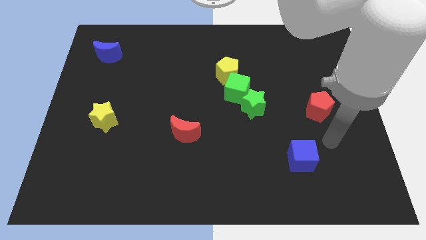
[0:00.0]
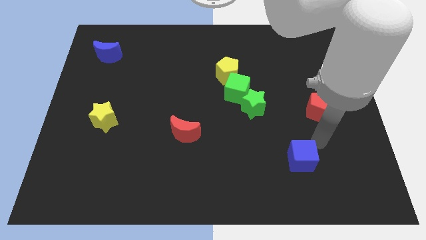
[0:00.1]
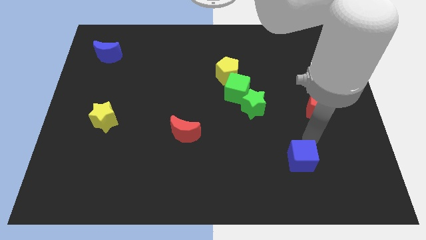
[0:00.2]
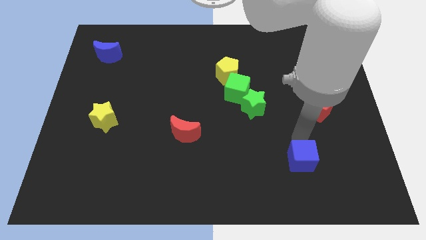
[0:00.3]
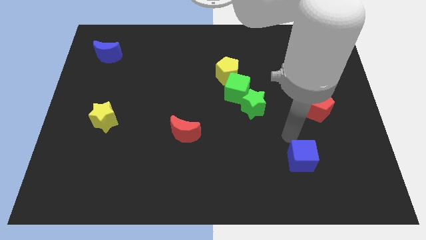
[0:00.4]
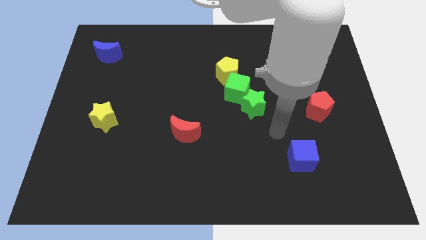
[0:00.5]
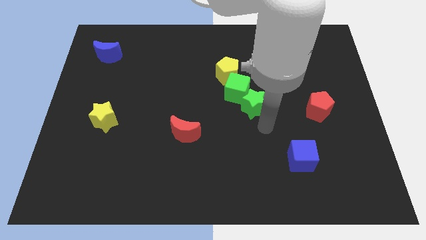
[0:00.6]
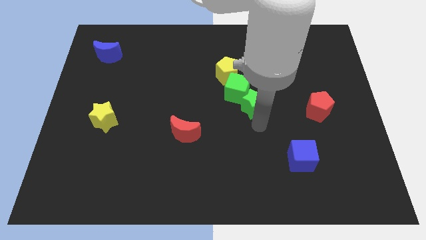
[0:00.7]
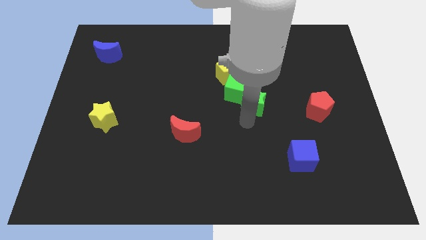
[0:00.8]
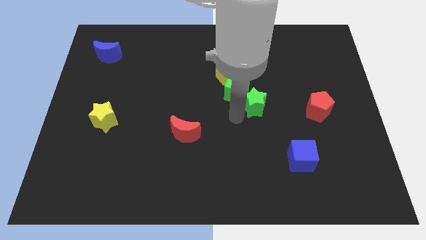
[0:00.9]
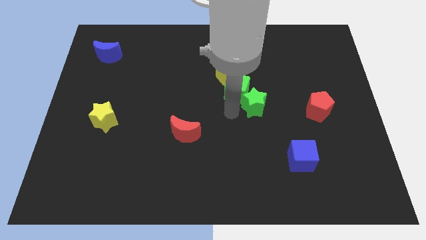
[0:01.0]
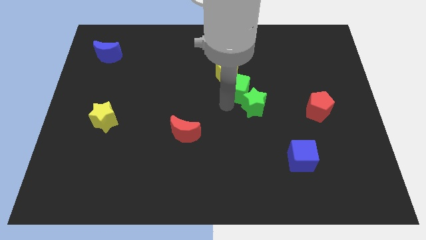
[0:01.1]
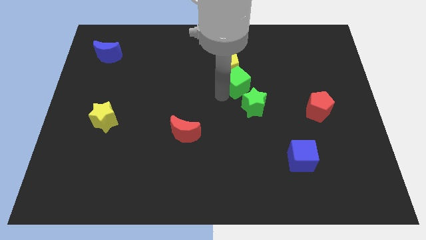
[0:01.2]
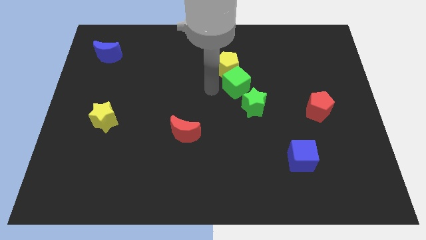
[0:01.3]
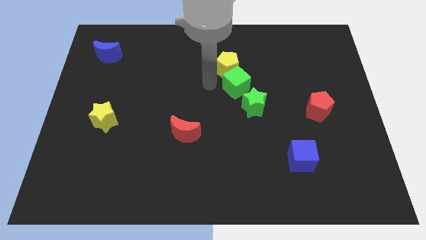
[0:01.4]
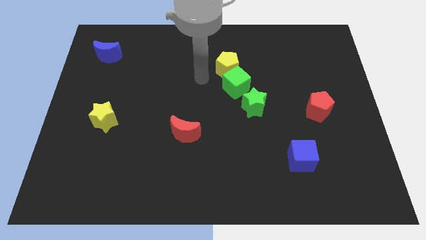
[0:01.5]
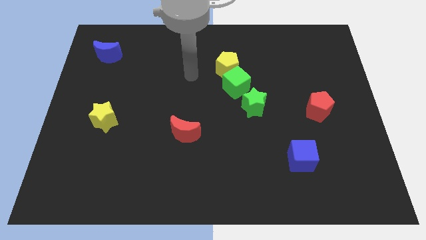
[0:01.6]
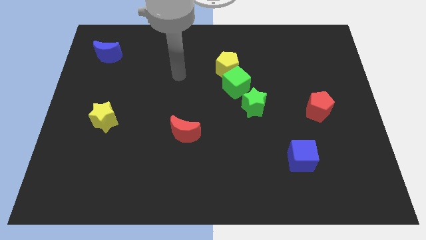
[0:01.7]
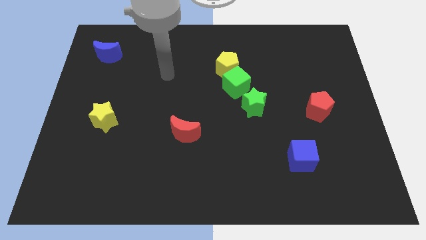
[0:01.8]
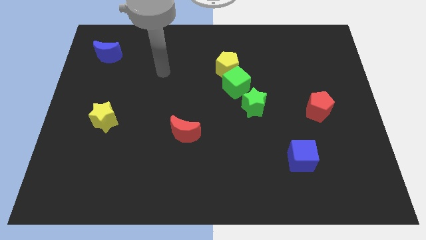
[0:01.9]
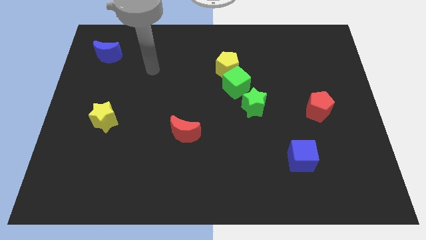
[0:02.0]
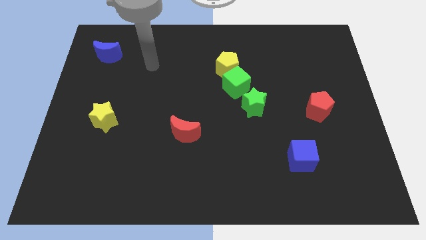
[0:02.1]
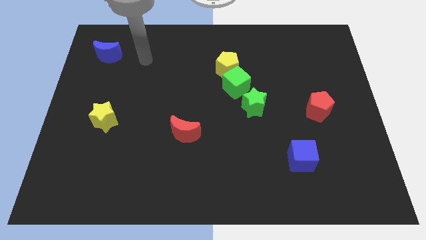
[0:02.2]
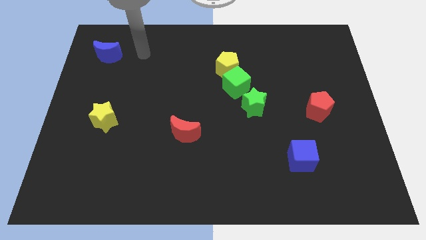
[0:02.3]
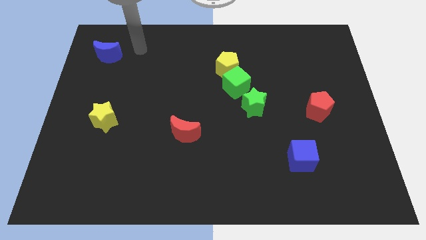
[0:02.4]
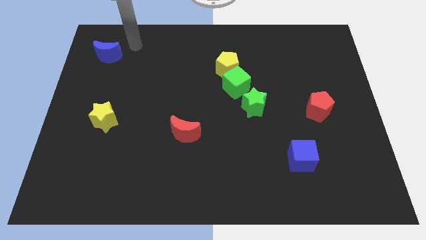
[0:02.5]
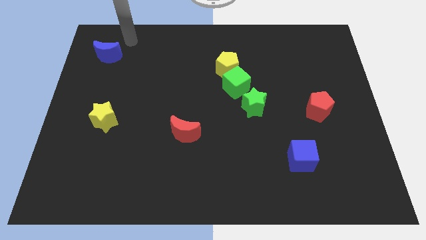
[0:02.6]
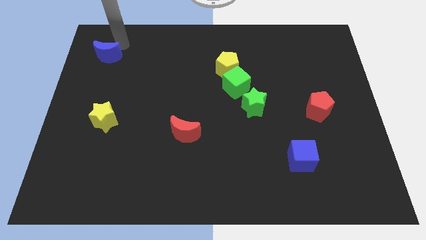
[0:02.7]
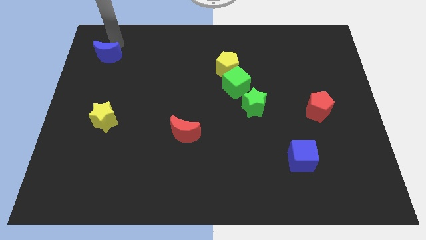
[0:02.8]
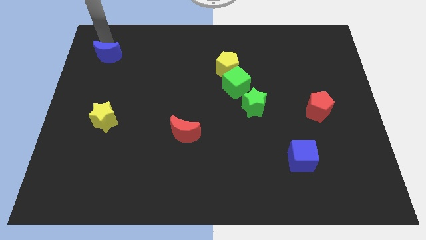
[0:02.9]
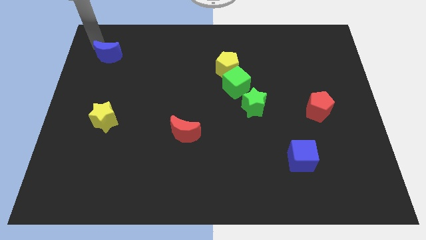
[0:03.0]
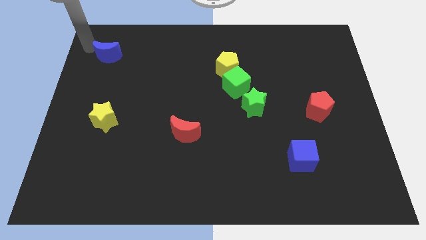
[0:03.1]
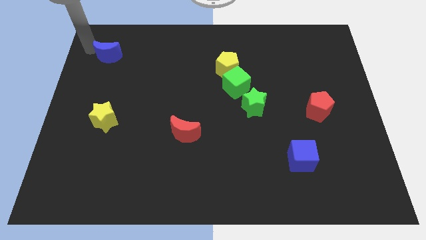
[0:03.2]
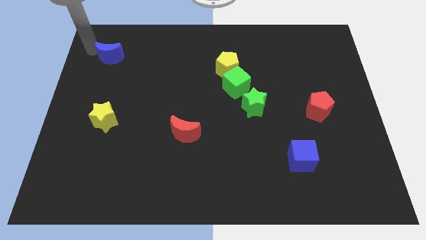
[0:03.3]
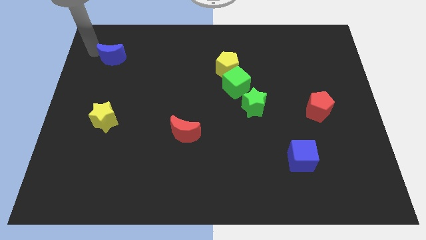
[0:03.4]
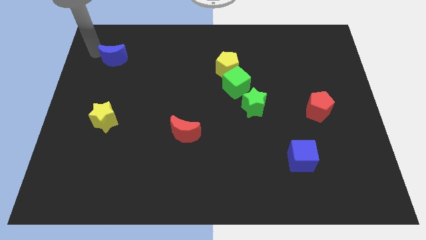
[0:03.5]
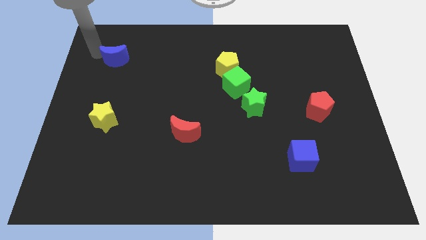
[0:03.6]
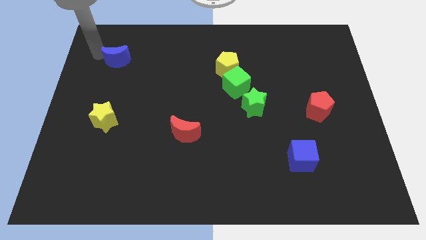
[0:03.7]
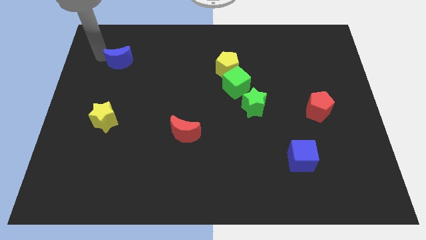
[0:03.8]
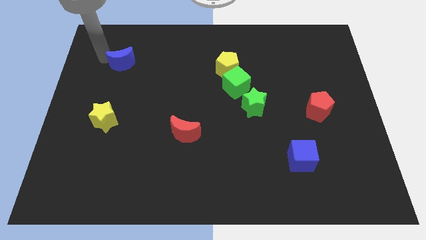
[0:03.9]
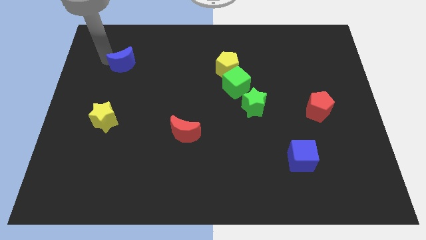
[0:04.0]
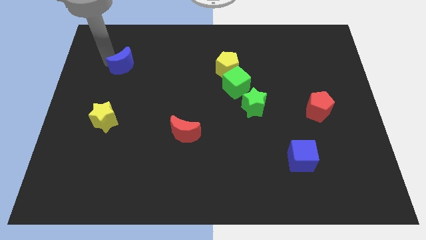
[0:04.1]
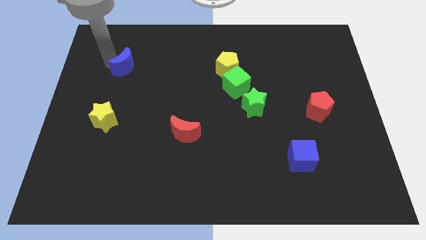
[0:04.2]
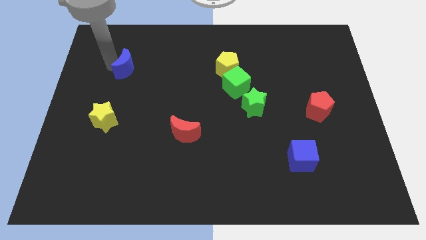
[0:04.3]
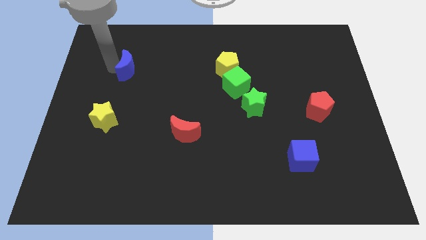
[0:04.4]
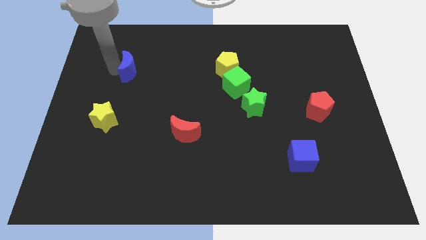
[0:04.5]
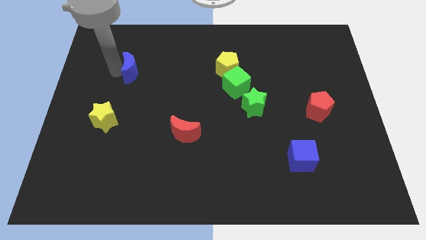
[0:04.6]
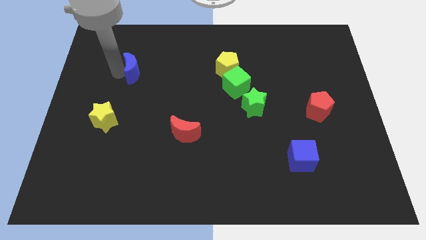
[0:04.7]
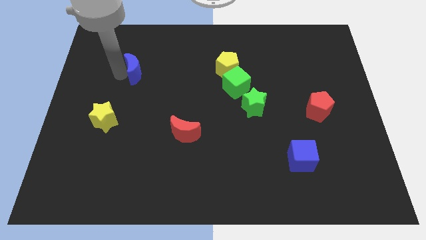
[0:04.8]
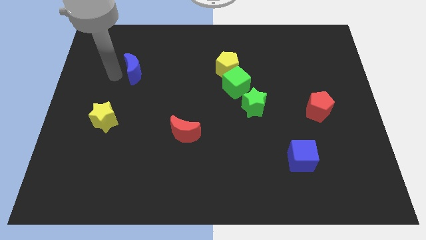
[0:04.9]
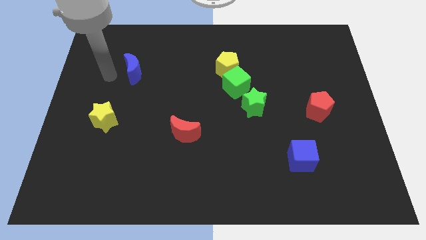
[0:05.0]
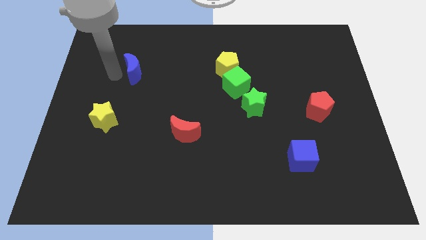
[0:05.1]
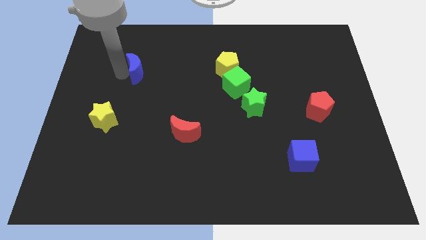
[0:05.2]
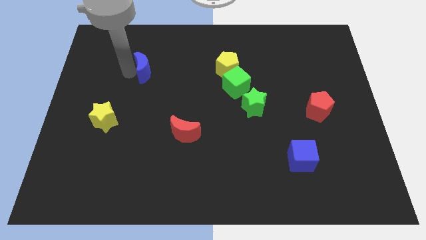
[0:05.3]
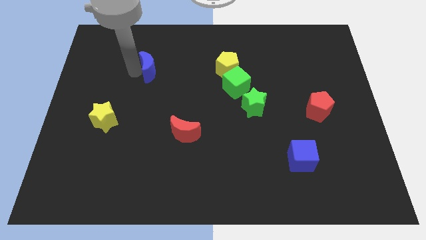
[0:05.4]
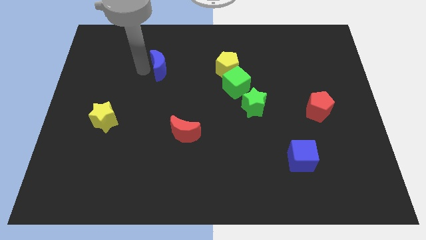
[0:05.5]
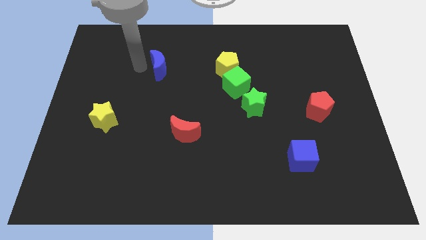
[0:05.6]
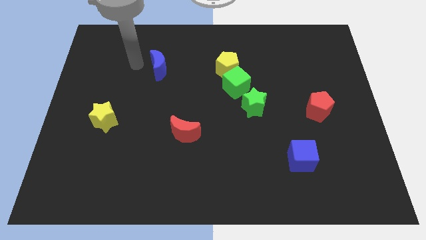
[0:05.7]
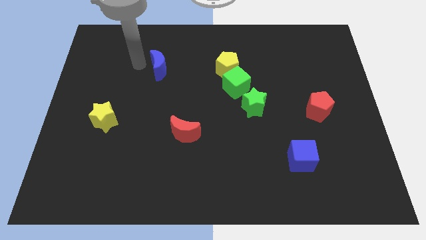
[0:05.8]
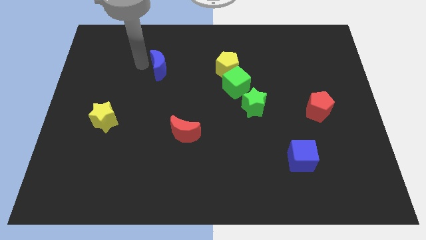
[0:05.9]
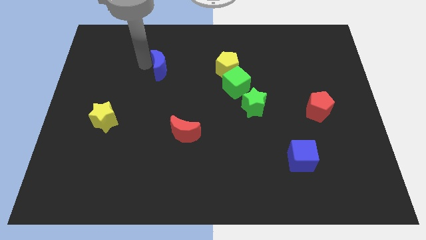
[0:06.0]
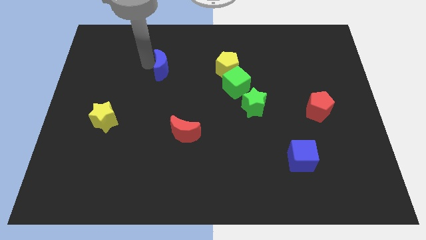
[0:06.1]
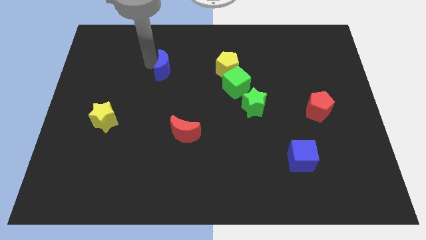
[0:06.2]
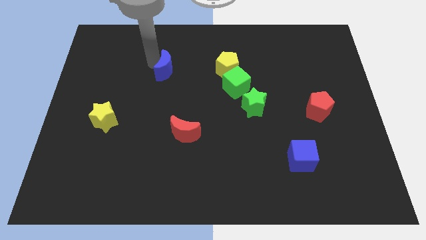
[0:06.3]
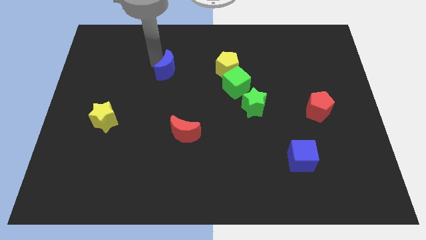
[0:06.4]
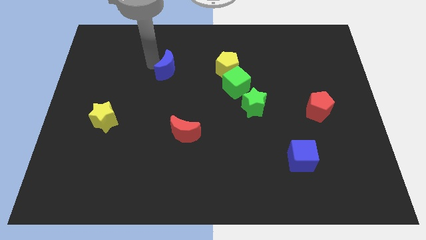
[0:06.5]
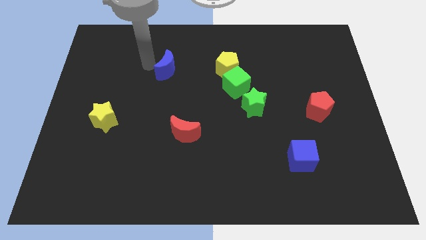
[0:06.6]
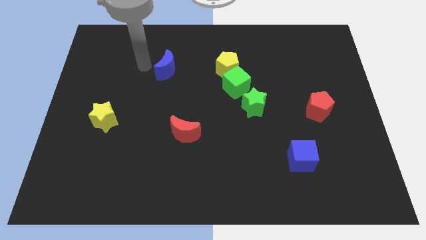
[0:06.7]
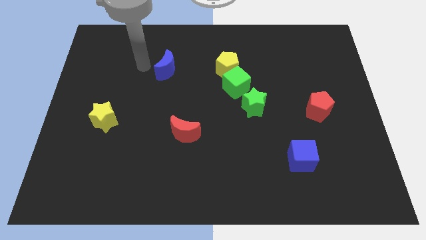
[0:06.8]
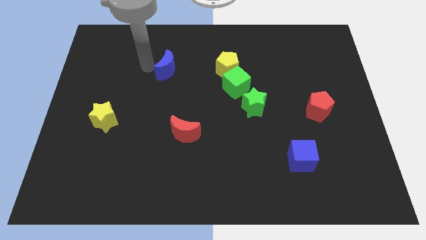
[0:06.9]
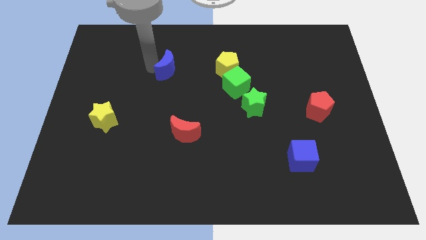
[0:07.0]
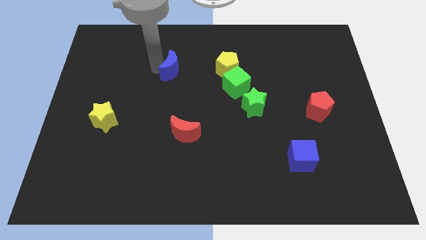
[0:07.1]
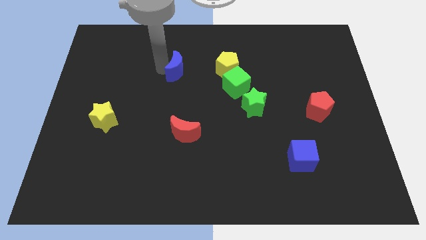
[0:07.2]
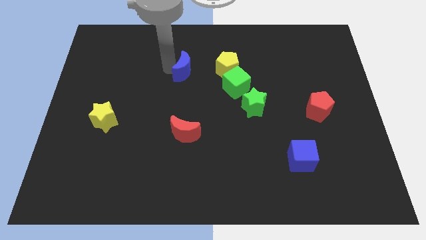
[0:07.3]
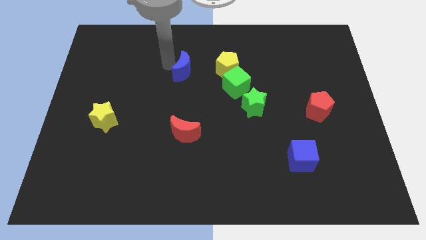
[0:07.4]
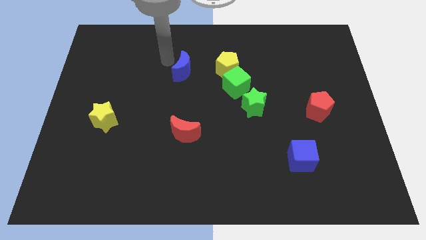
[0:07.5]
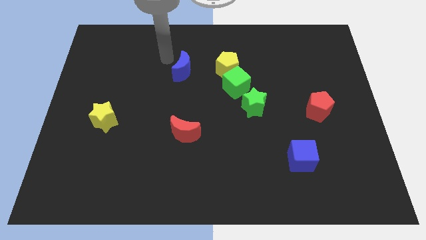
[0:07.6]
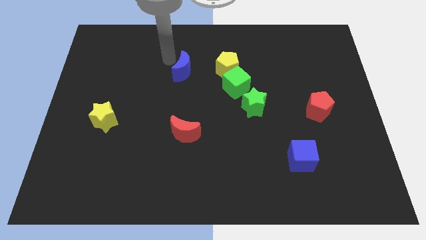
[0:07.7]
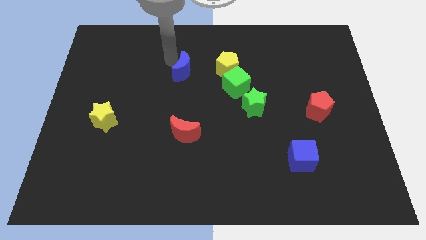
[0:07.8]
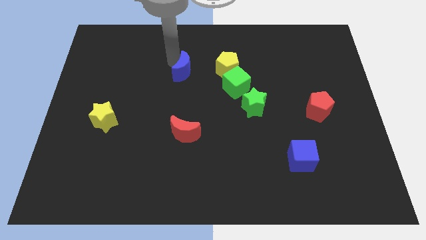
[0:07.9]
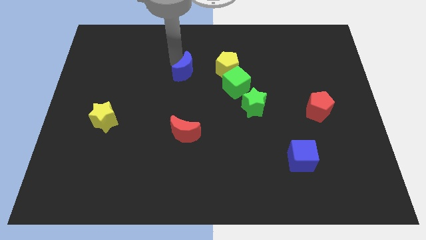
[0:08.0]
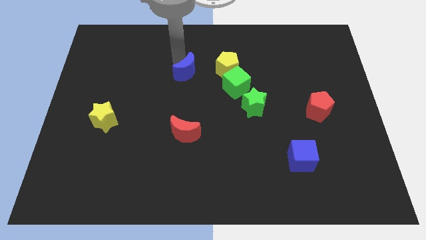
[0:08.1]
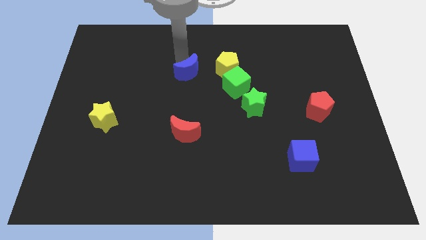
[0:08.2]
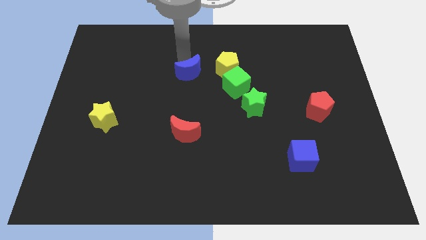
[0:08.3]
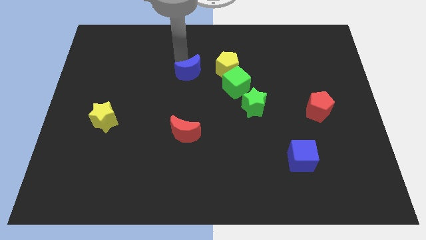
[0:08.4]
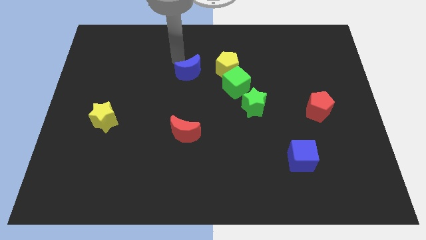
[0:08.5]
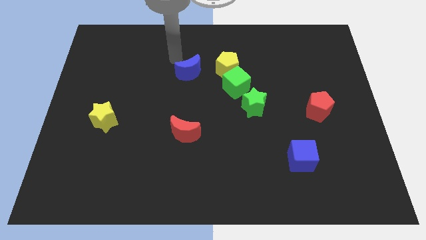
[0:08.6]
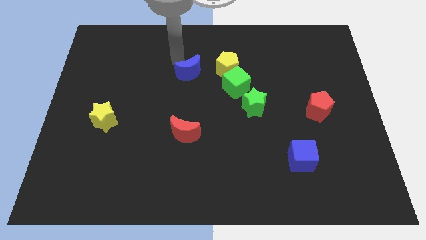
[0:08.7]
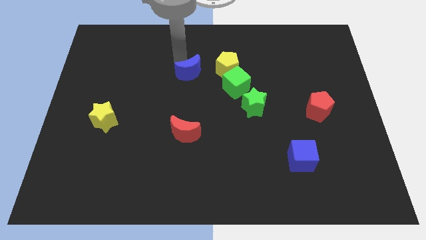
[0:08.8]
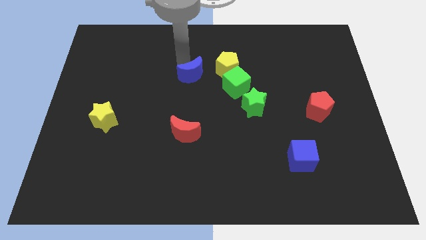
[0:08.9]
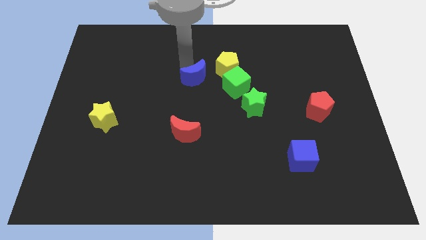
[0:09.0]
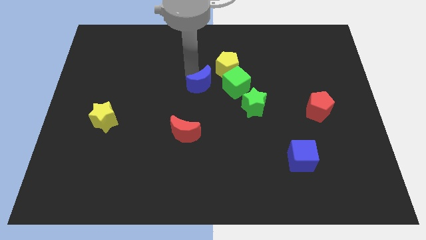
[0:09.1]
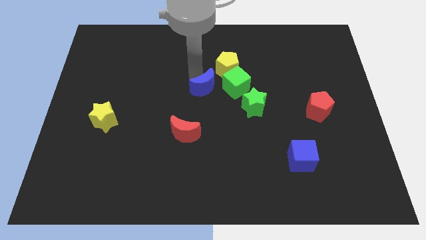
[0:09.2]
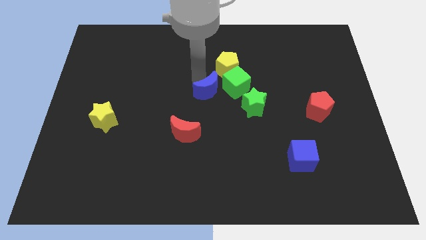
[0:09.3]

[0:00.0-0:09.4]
move the blue moon to the bottom of the yellow pentagon
